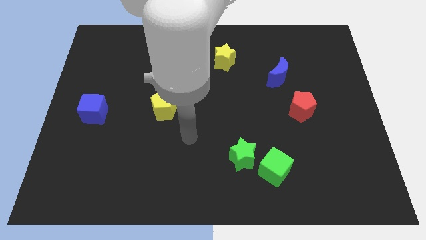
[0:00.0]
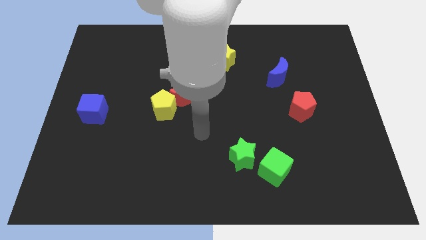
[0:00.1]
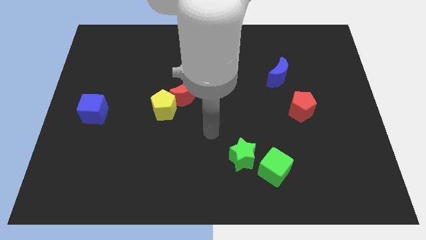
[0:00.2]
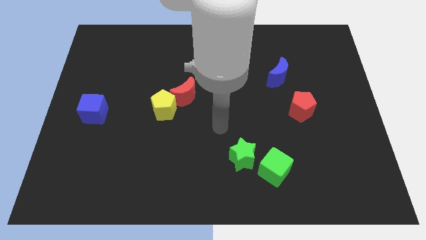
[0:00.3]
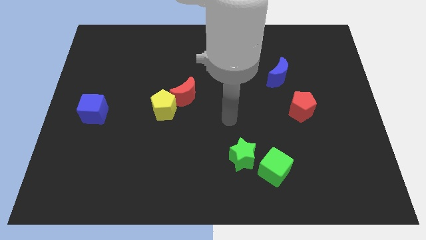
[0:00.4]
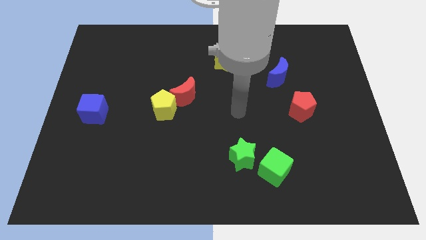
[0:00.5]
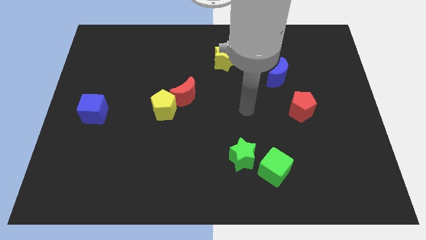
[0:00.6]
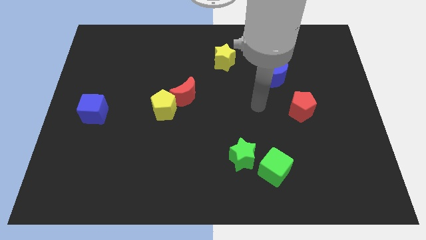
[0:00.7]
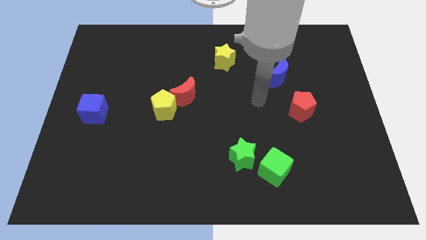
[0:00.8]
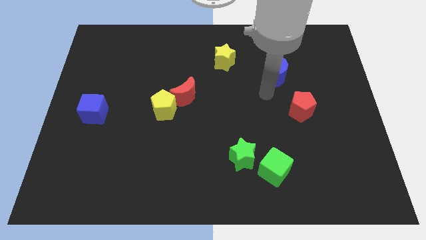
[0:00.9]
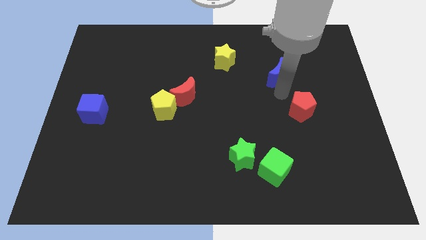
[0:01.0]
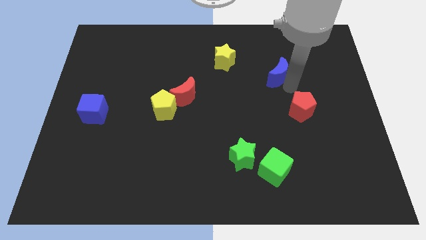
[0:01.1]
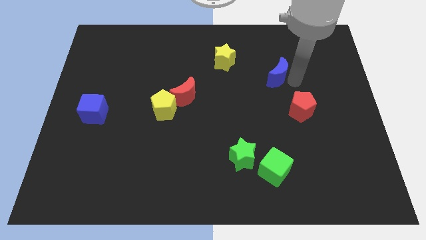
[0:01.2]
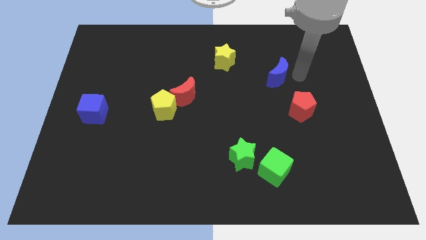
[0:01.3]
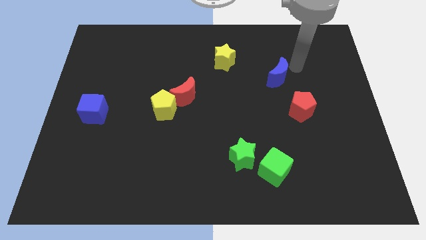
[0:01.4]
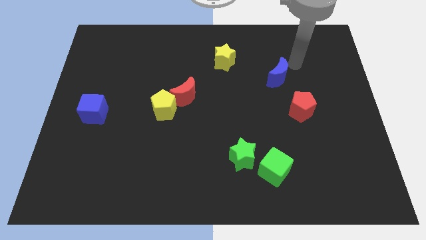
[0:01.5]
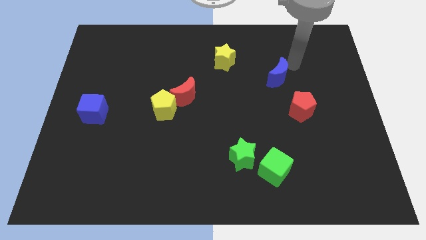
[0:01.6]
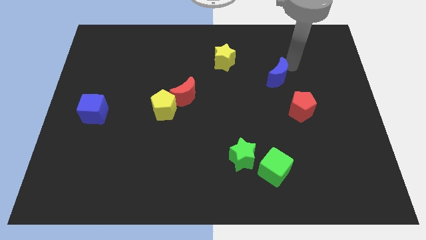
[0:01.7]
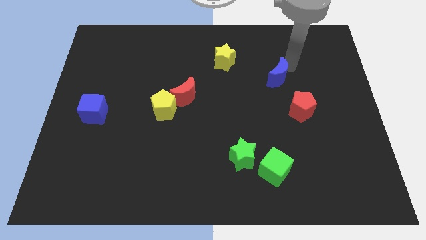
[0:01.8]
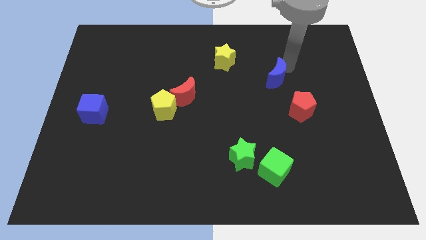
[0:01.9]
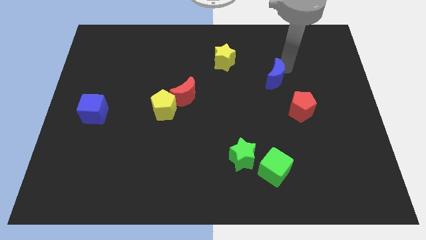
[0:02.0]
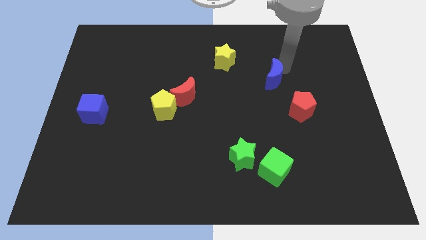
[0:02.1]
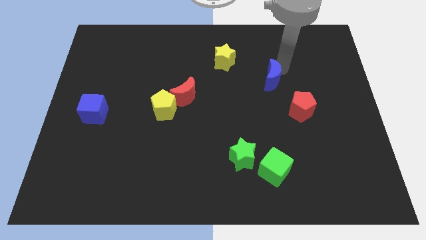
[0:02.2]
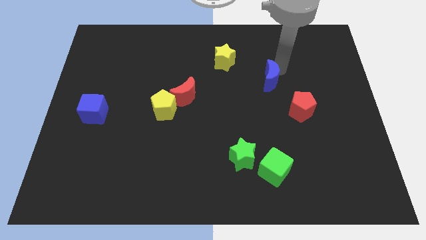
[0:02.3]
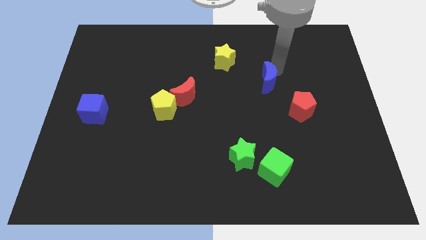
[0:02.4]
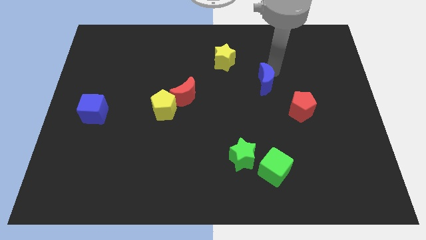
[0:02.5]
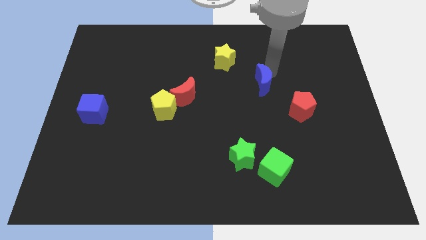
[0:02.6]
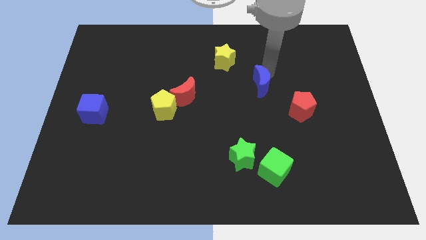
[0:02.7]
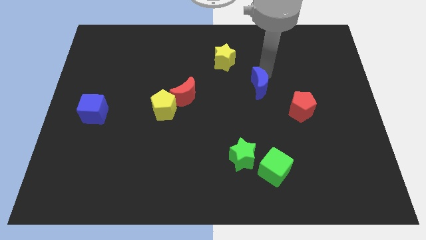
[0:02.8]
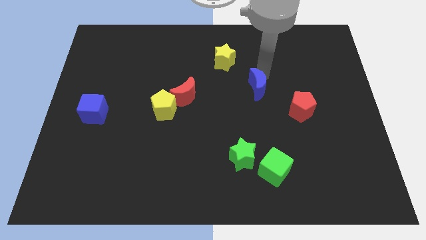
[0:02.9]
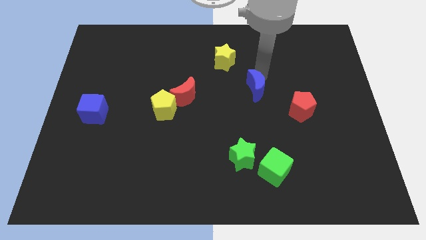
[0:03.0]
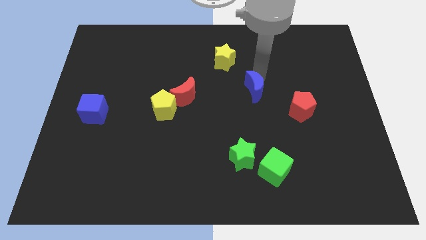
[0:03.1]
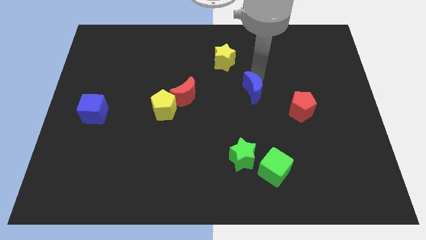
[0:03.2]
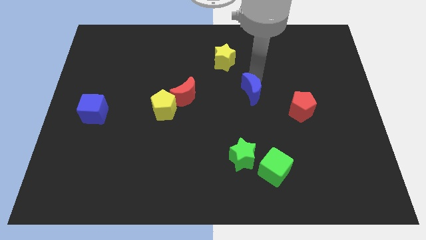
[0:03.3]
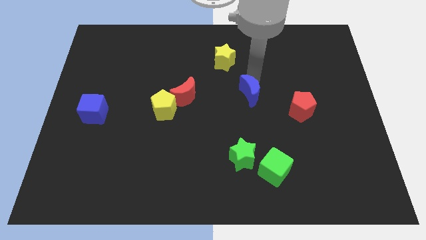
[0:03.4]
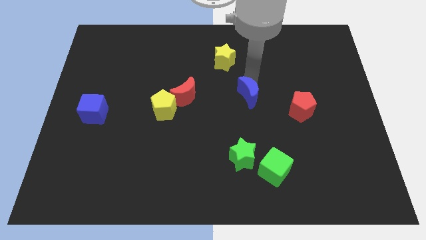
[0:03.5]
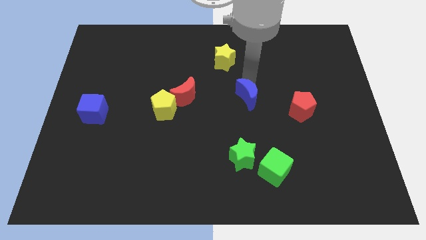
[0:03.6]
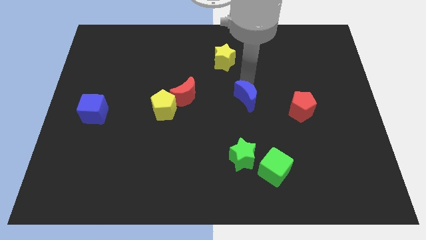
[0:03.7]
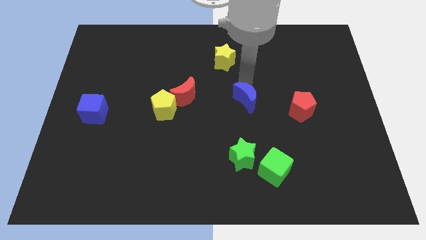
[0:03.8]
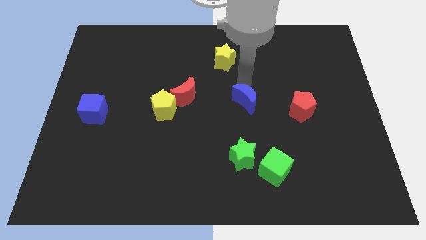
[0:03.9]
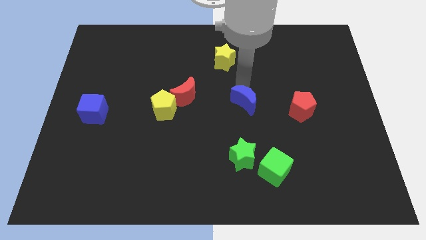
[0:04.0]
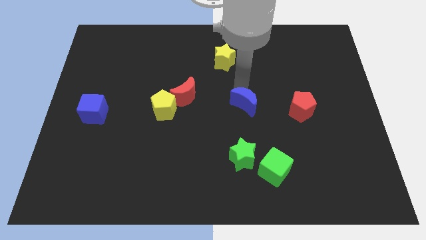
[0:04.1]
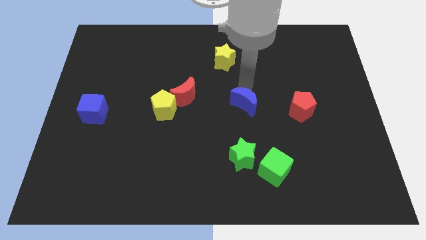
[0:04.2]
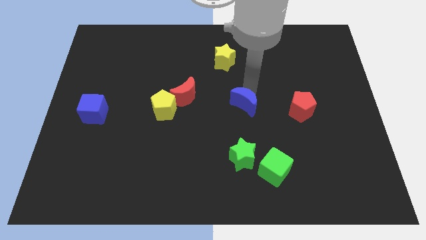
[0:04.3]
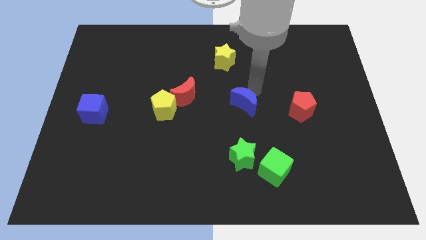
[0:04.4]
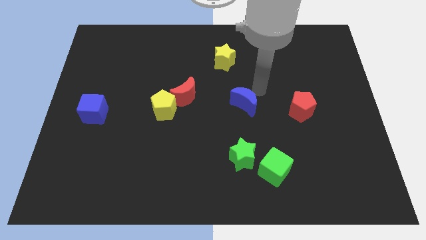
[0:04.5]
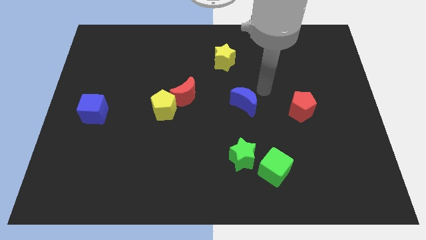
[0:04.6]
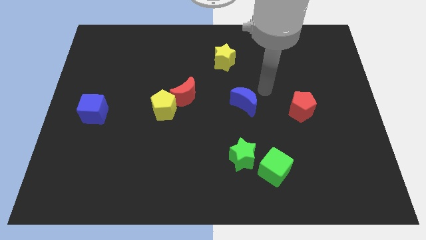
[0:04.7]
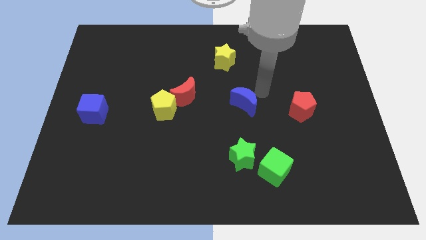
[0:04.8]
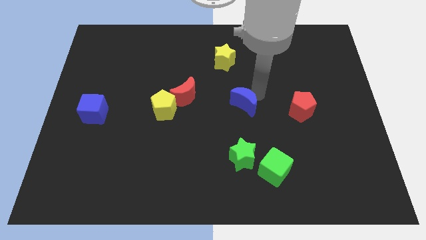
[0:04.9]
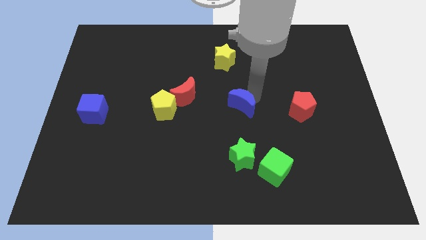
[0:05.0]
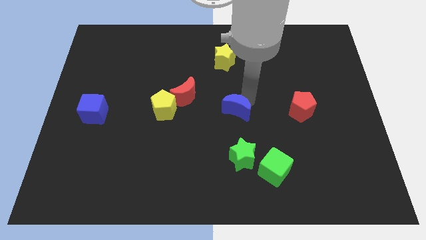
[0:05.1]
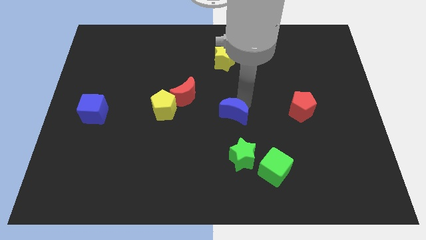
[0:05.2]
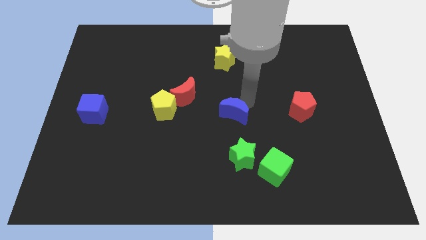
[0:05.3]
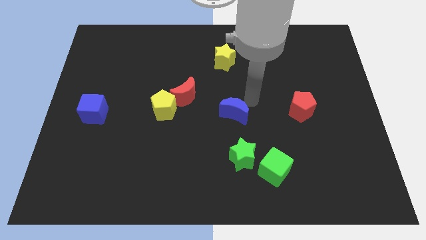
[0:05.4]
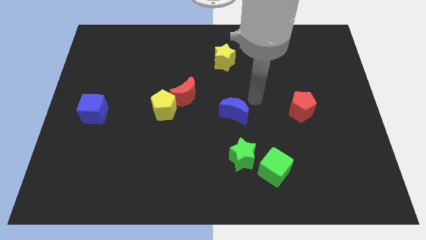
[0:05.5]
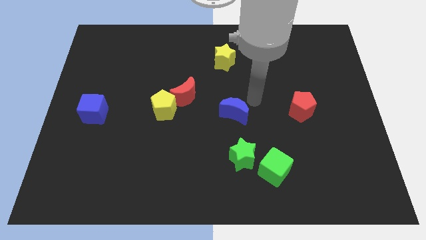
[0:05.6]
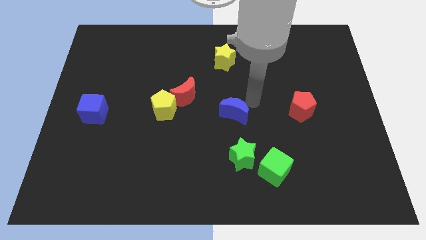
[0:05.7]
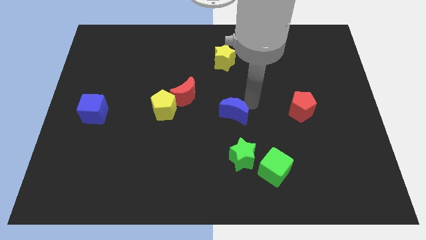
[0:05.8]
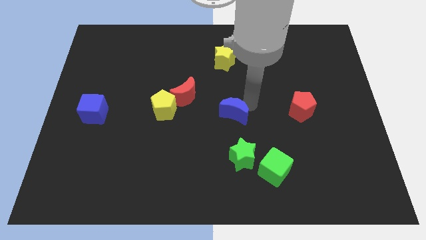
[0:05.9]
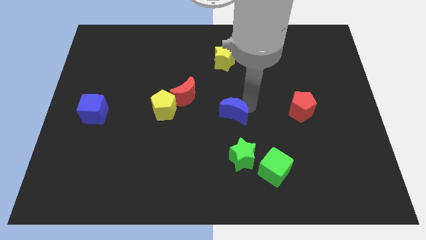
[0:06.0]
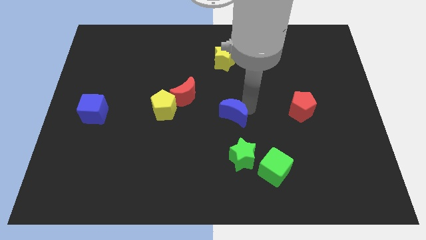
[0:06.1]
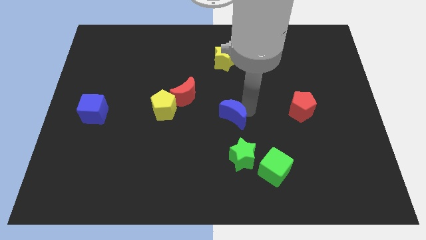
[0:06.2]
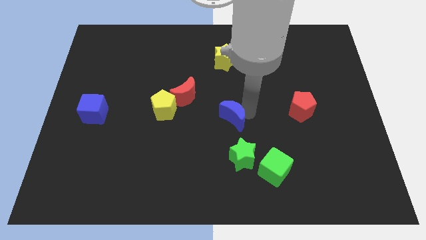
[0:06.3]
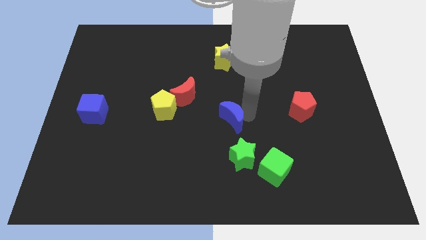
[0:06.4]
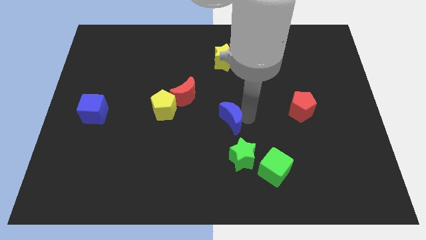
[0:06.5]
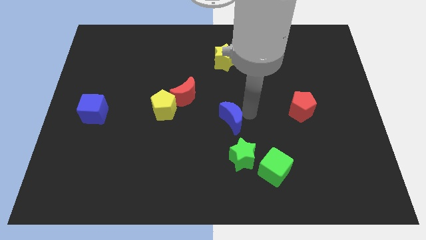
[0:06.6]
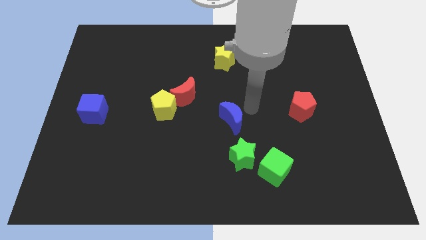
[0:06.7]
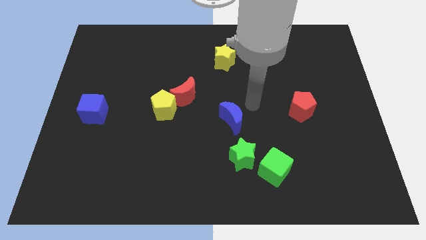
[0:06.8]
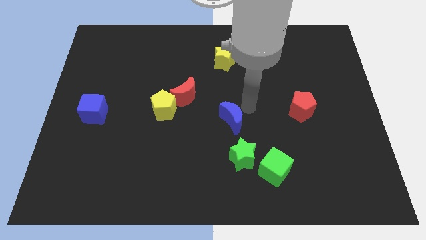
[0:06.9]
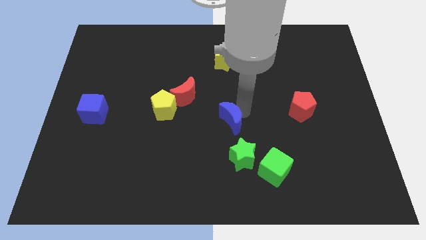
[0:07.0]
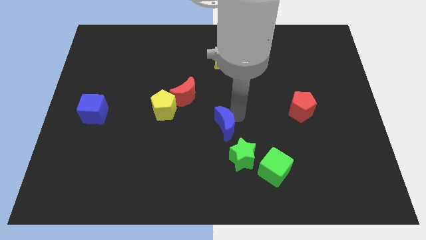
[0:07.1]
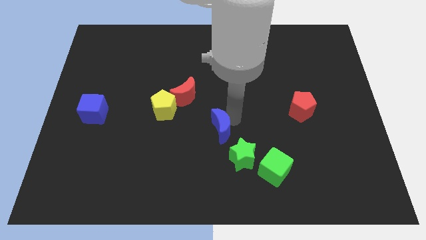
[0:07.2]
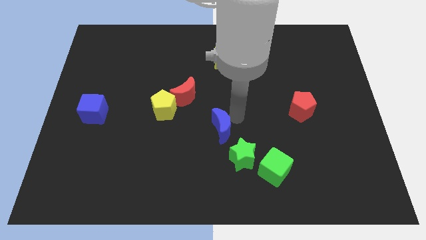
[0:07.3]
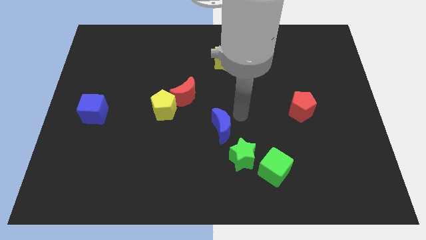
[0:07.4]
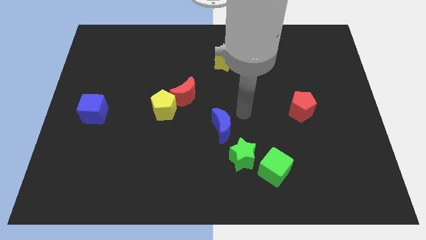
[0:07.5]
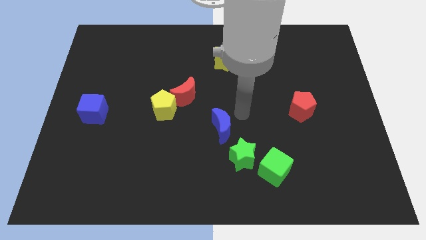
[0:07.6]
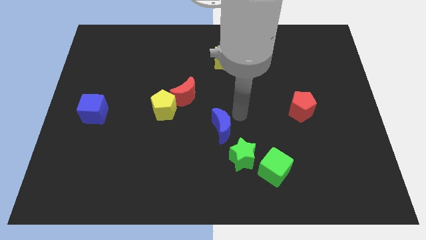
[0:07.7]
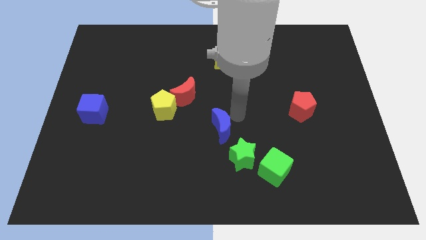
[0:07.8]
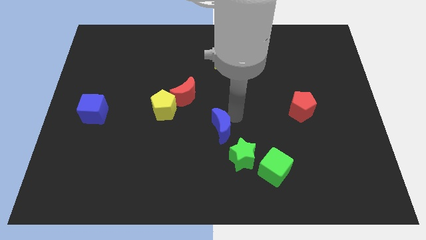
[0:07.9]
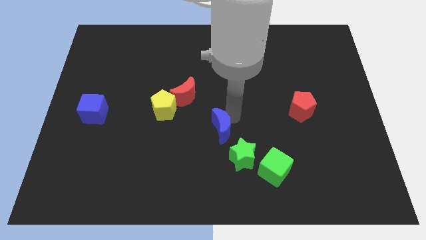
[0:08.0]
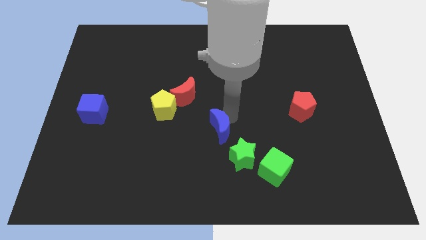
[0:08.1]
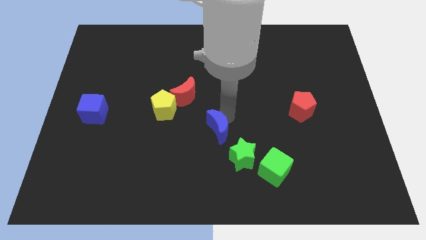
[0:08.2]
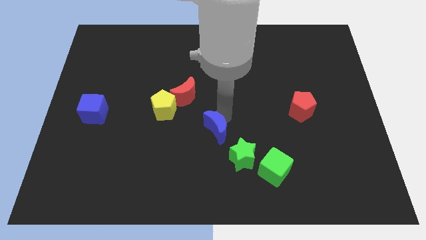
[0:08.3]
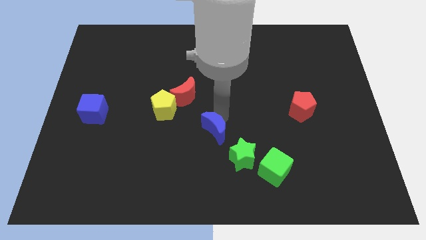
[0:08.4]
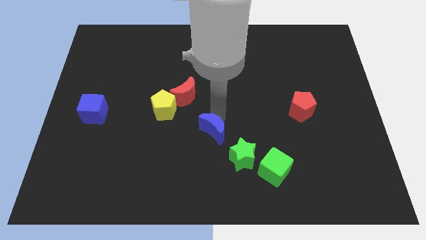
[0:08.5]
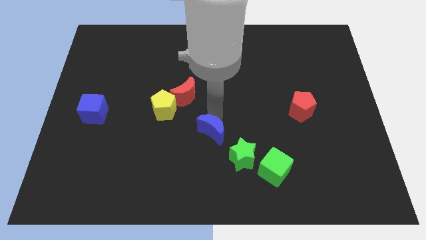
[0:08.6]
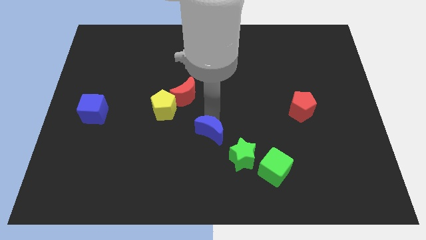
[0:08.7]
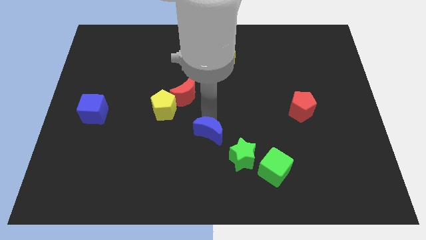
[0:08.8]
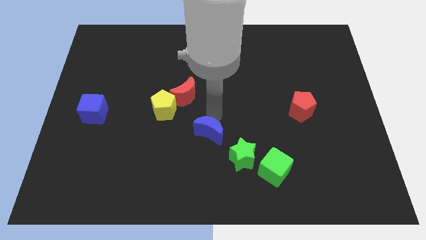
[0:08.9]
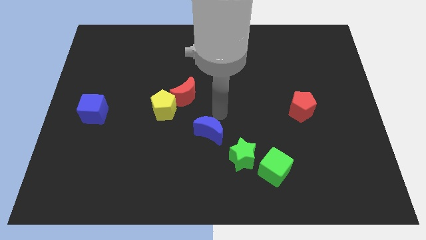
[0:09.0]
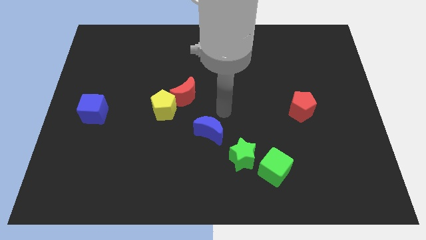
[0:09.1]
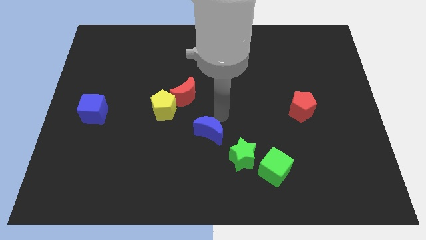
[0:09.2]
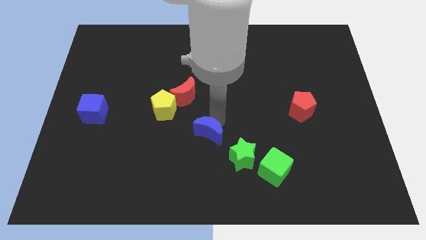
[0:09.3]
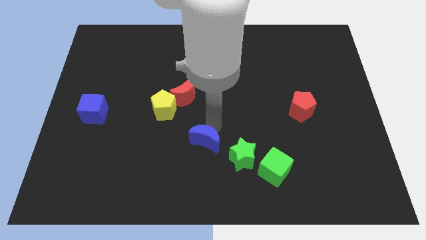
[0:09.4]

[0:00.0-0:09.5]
push the blue moon left of the green star
